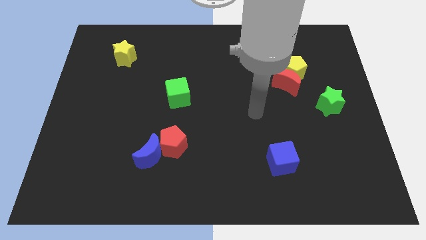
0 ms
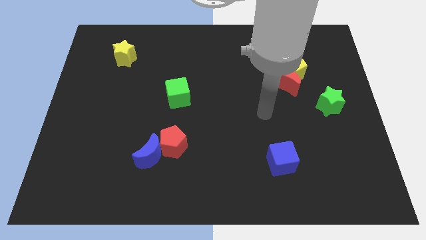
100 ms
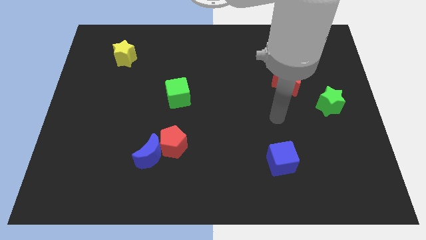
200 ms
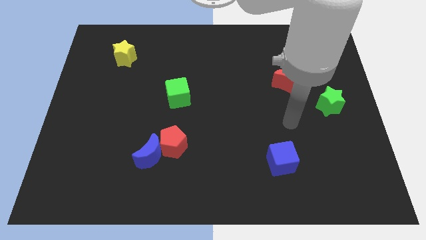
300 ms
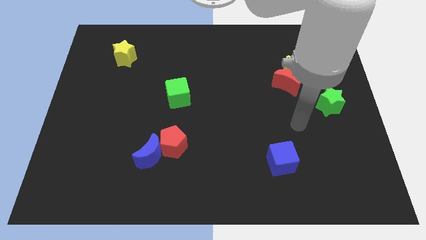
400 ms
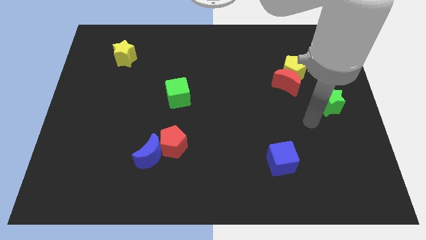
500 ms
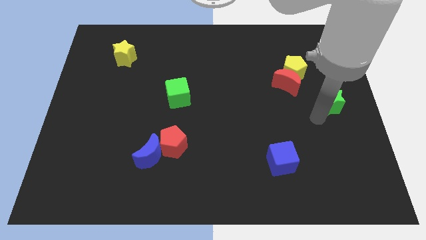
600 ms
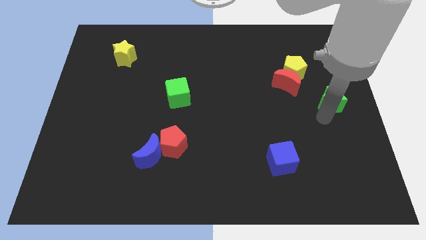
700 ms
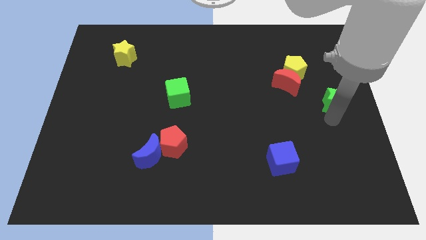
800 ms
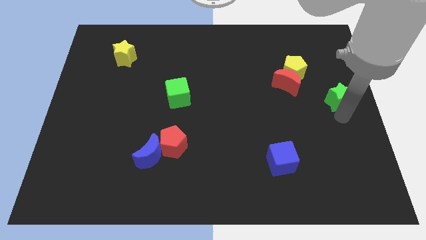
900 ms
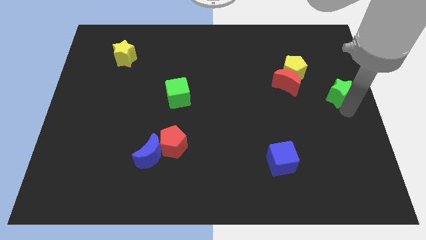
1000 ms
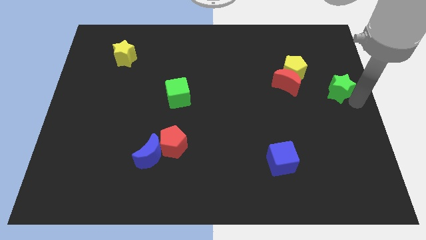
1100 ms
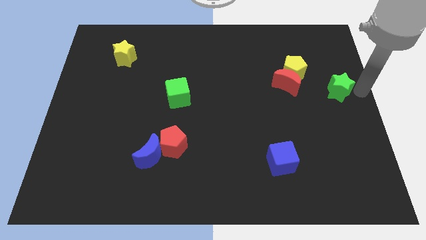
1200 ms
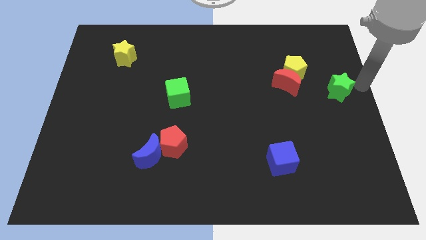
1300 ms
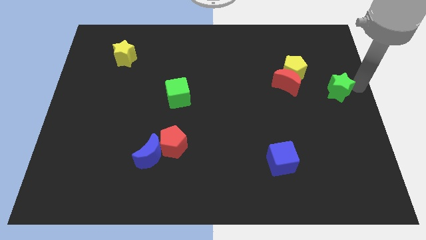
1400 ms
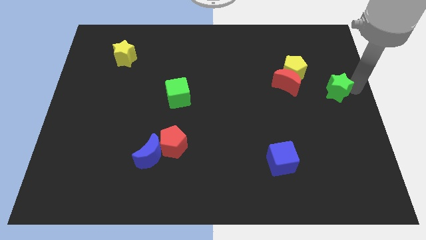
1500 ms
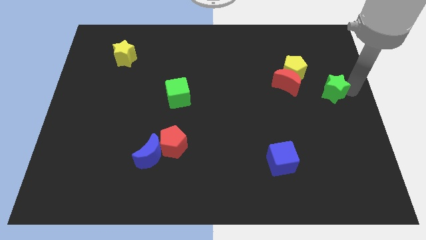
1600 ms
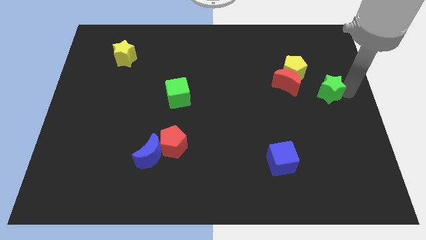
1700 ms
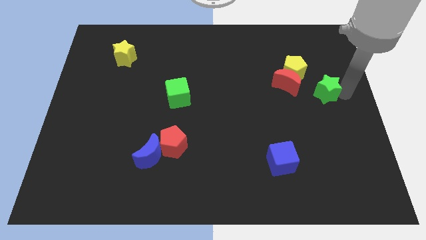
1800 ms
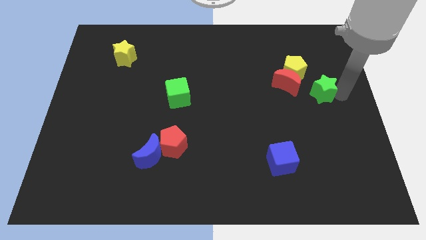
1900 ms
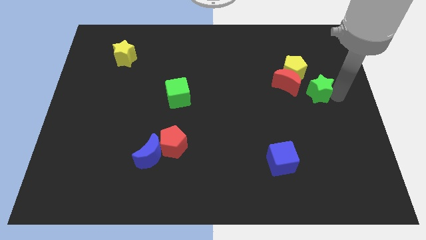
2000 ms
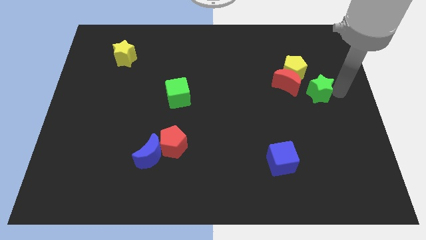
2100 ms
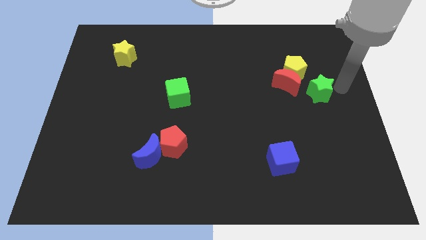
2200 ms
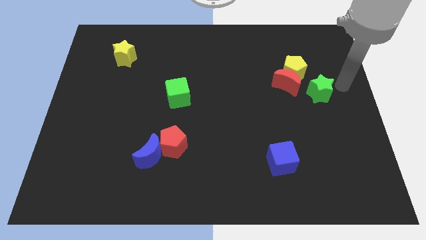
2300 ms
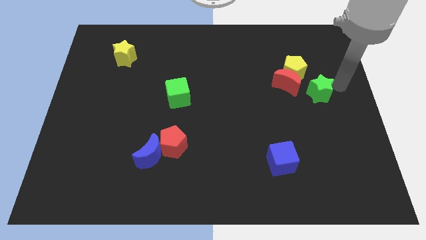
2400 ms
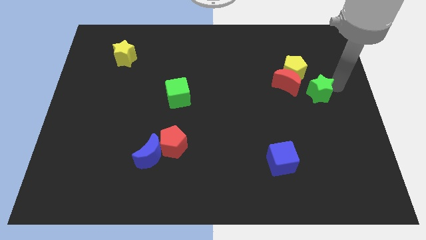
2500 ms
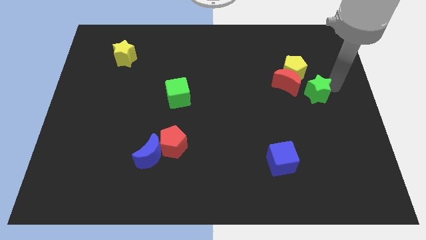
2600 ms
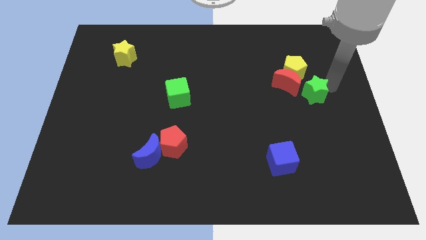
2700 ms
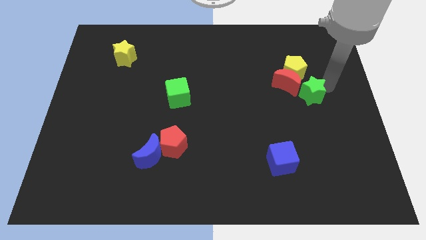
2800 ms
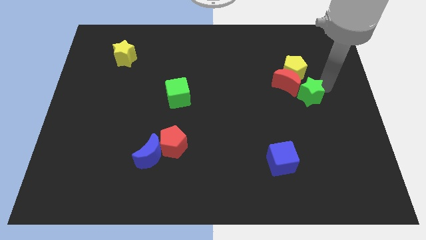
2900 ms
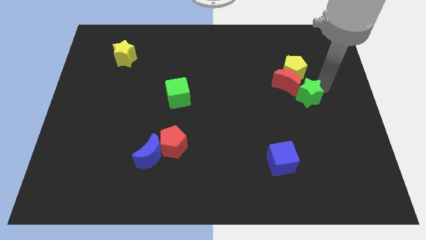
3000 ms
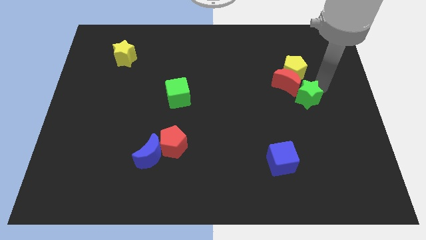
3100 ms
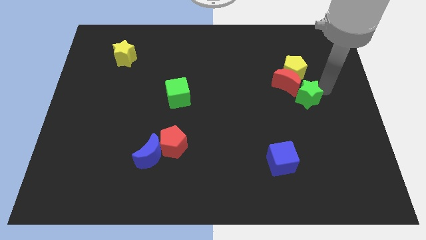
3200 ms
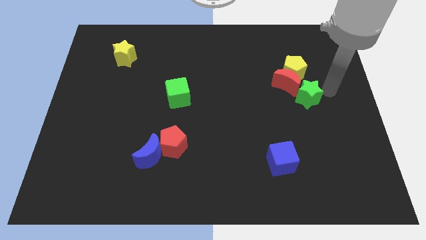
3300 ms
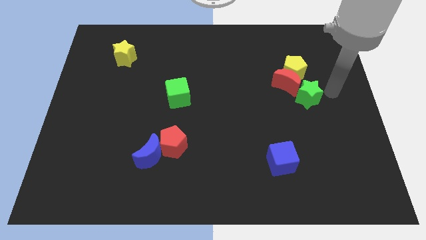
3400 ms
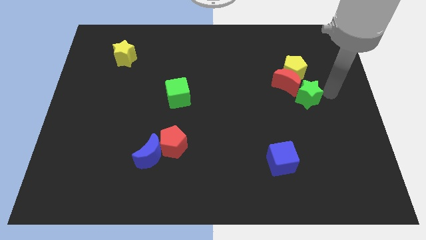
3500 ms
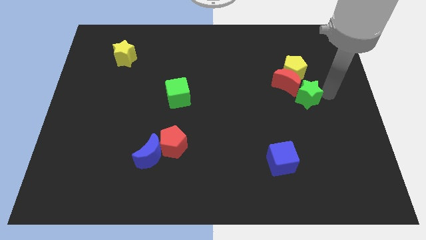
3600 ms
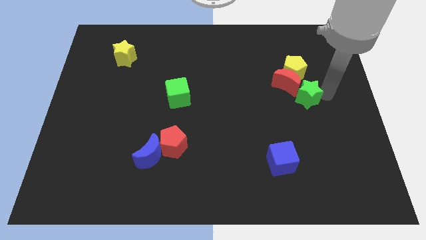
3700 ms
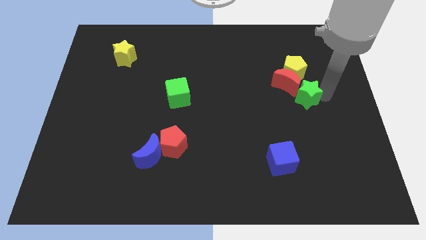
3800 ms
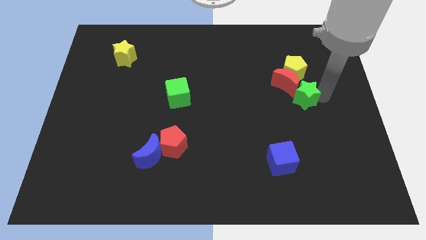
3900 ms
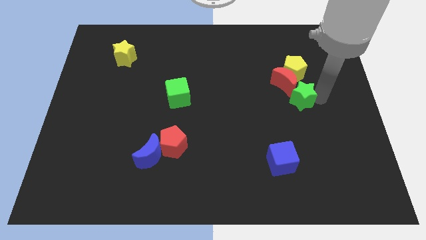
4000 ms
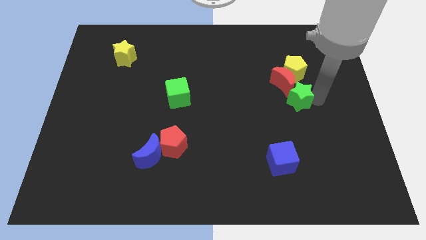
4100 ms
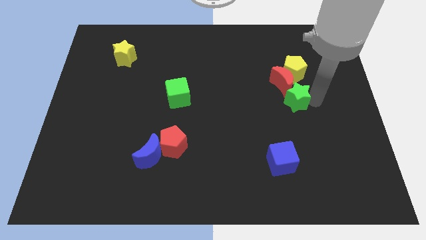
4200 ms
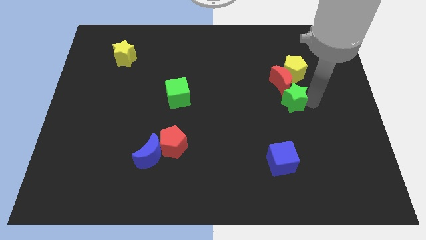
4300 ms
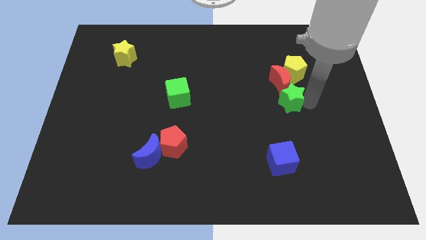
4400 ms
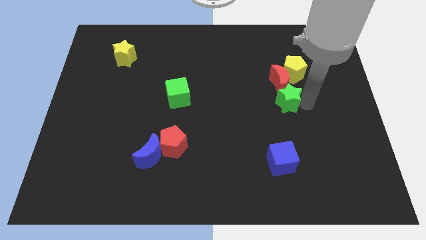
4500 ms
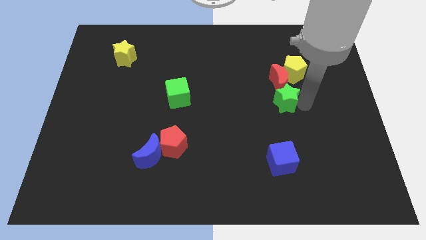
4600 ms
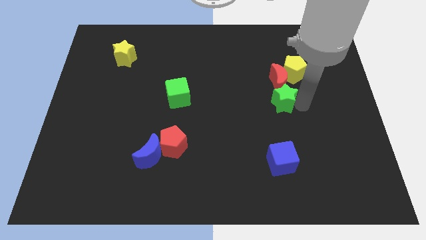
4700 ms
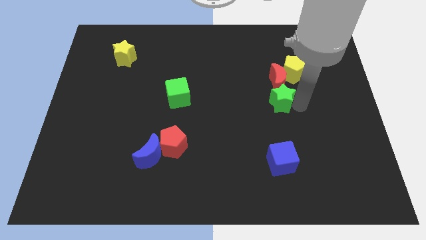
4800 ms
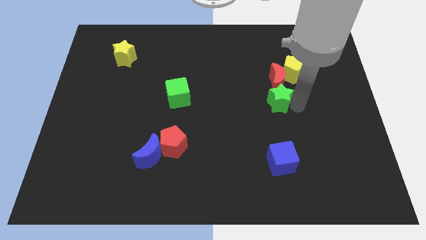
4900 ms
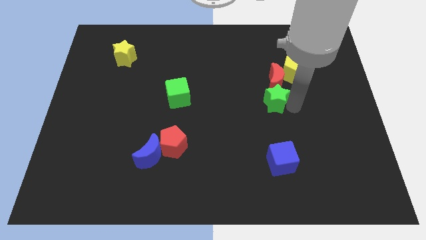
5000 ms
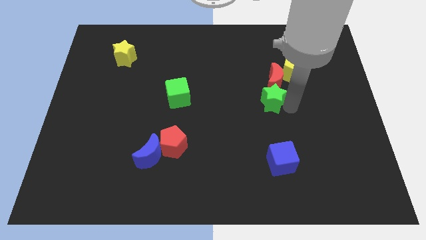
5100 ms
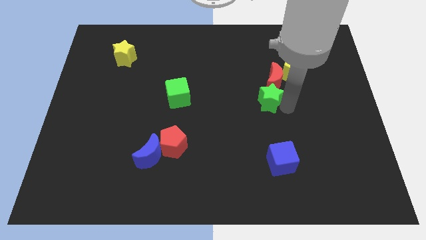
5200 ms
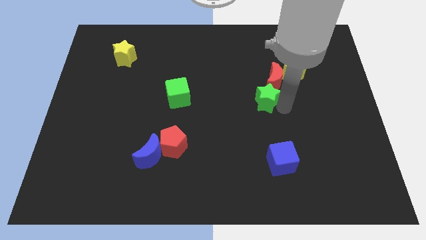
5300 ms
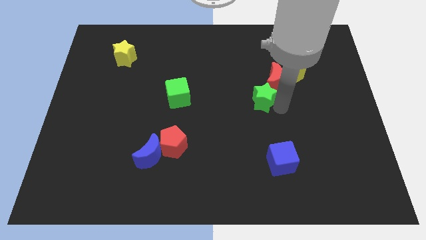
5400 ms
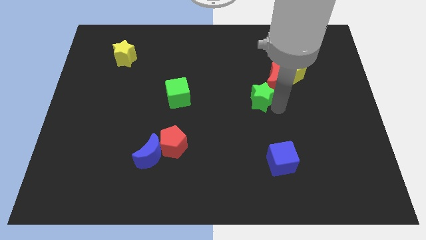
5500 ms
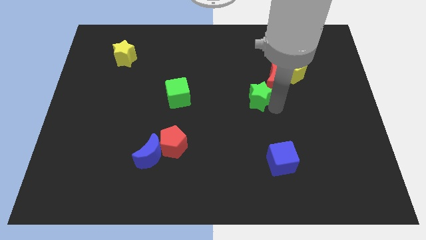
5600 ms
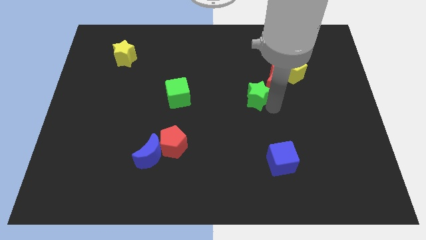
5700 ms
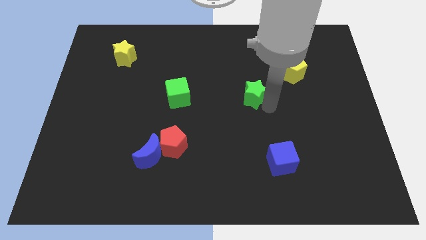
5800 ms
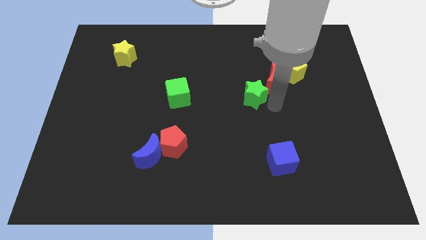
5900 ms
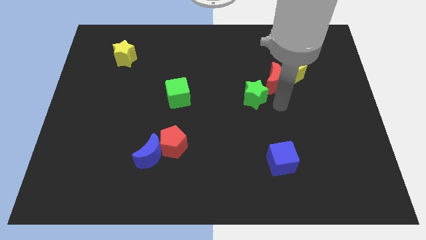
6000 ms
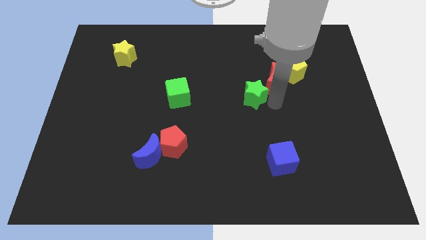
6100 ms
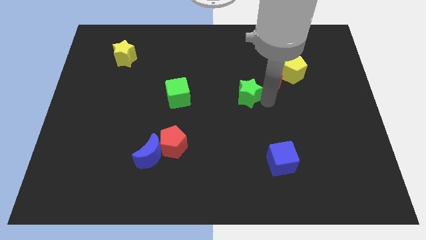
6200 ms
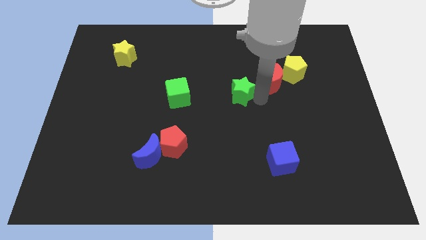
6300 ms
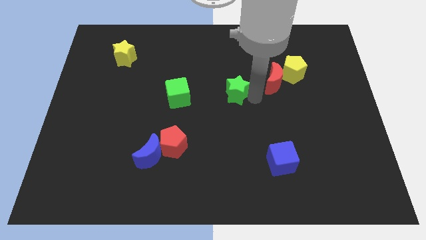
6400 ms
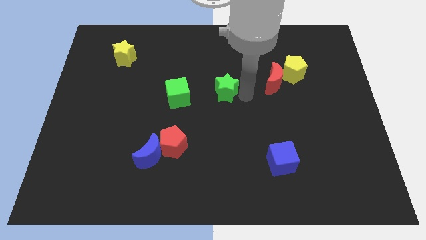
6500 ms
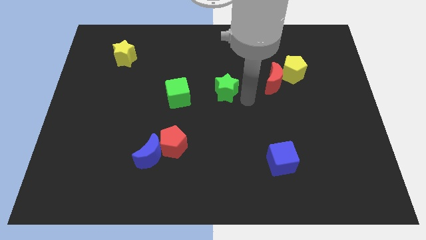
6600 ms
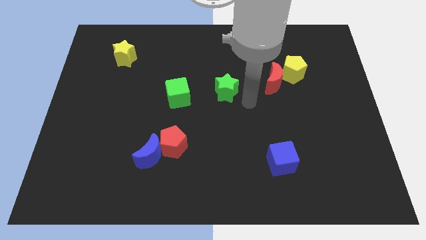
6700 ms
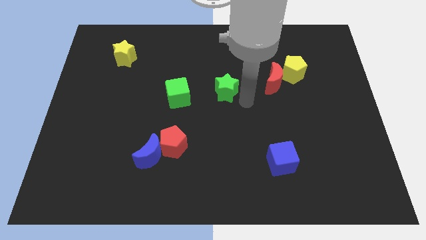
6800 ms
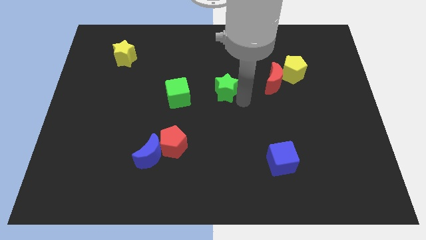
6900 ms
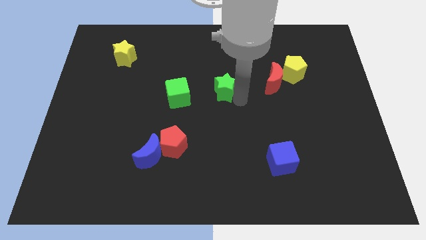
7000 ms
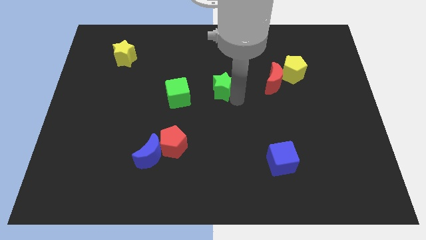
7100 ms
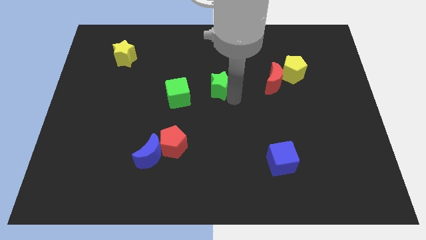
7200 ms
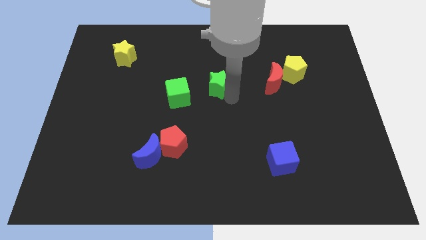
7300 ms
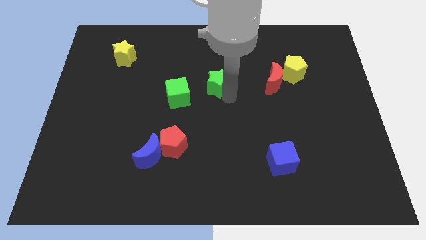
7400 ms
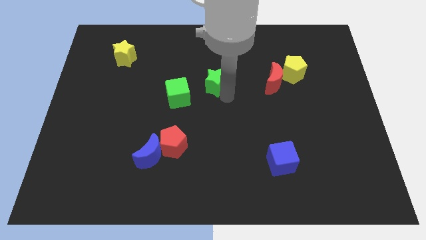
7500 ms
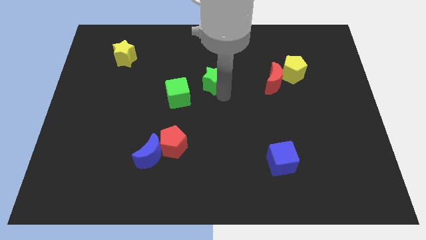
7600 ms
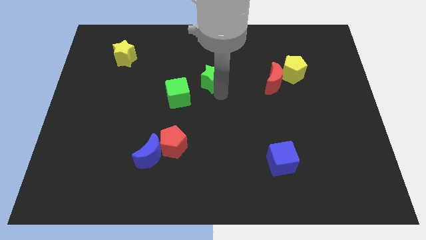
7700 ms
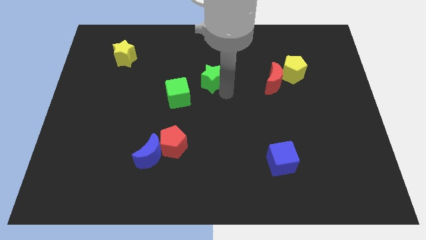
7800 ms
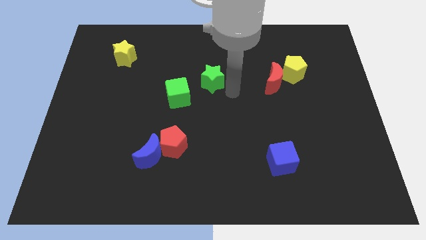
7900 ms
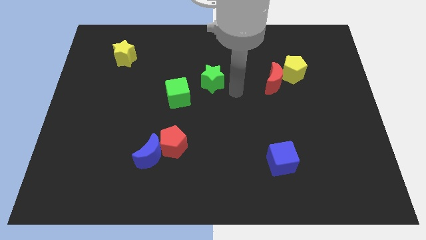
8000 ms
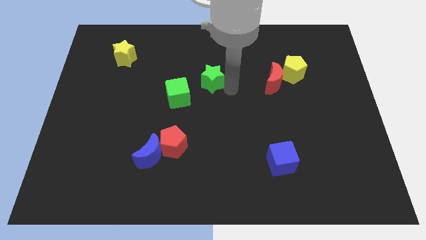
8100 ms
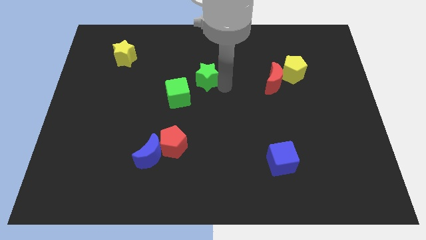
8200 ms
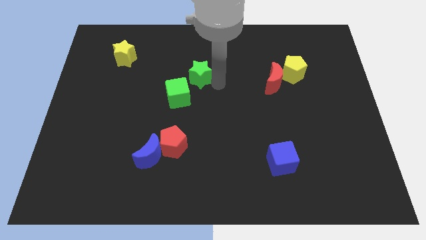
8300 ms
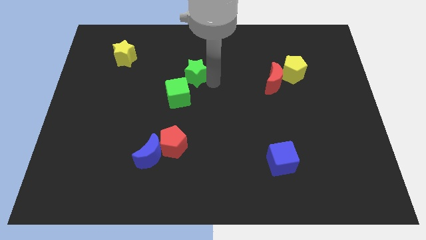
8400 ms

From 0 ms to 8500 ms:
slide the green star above the green cube
